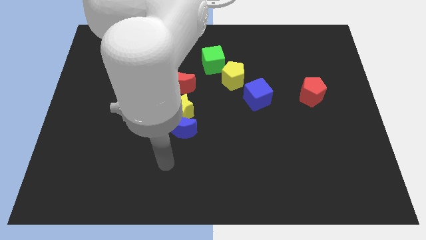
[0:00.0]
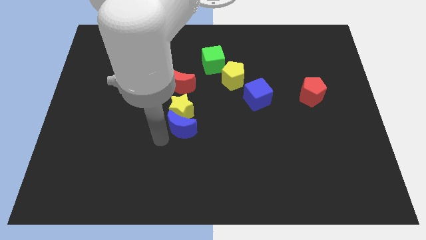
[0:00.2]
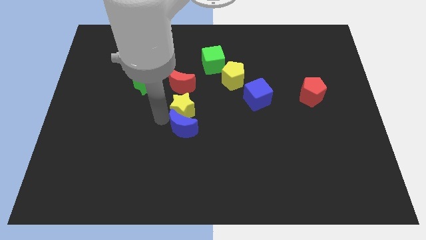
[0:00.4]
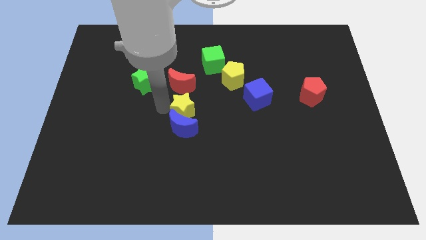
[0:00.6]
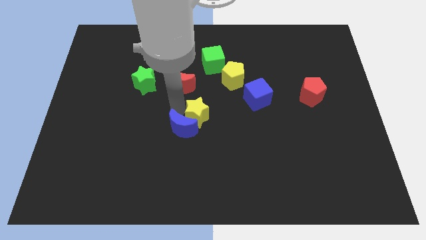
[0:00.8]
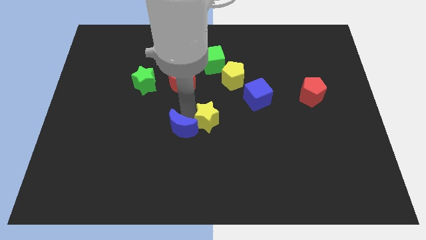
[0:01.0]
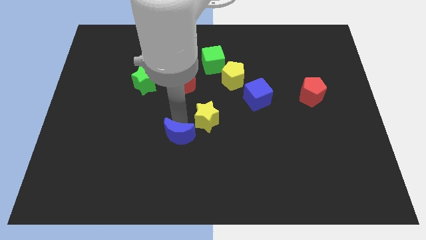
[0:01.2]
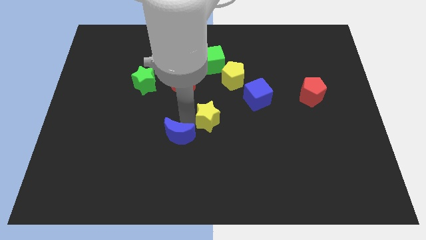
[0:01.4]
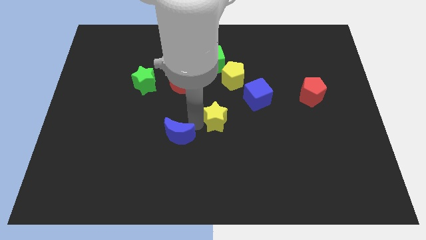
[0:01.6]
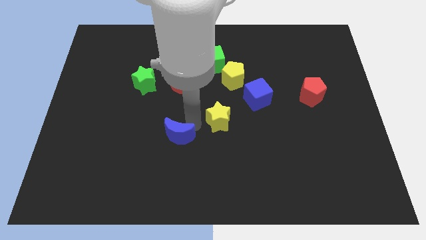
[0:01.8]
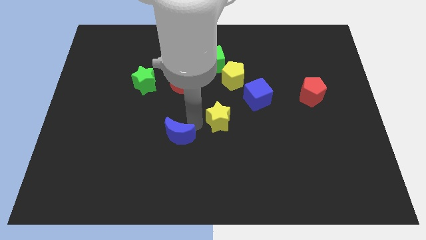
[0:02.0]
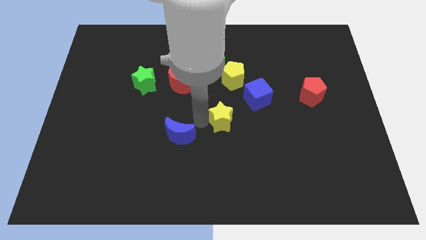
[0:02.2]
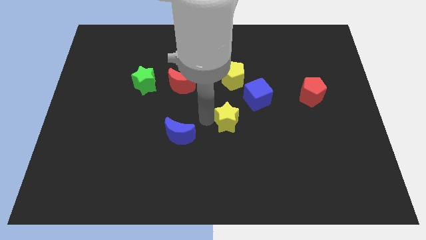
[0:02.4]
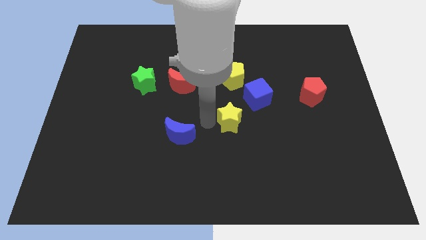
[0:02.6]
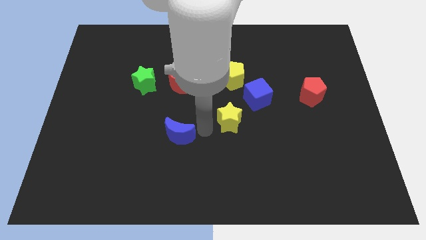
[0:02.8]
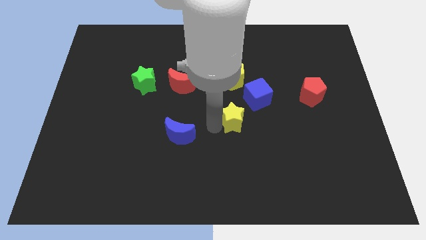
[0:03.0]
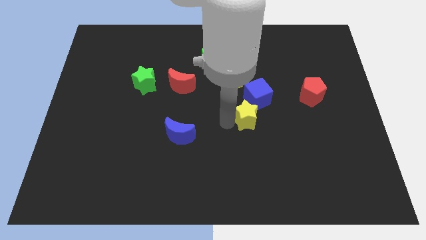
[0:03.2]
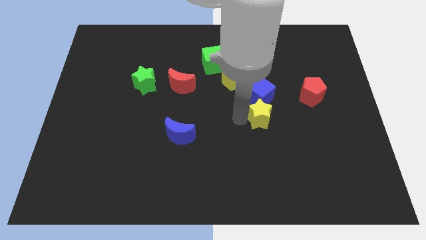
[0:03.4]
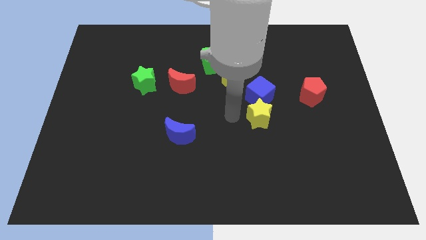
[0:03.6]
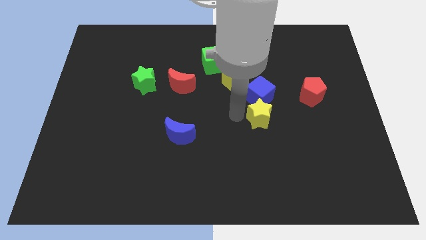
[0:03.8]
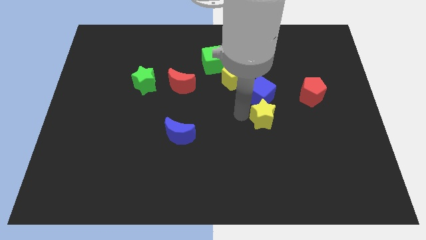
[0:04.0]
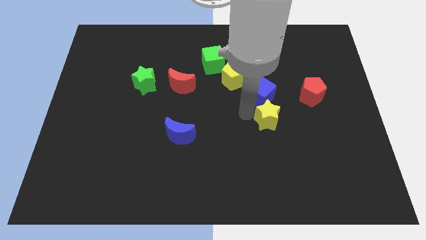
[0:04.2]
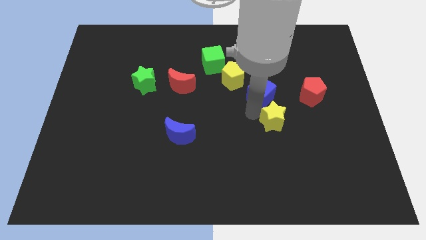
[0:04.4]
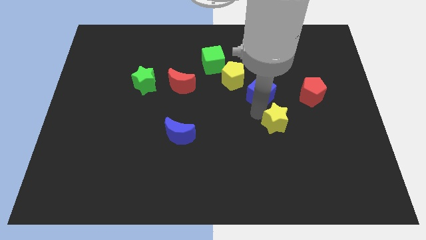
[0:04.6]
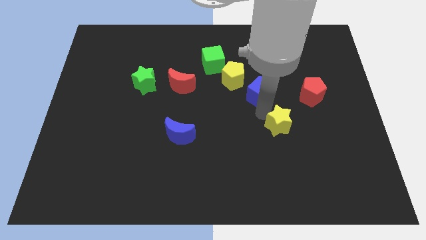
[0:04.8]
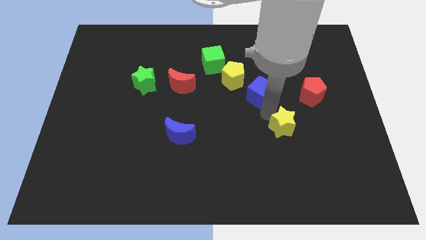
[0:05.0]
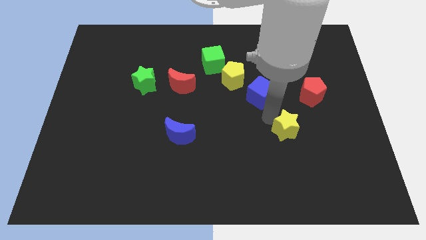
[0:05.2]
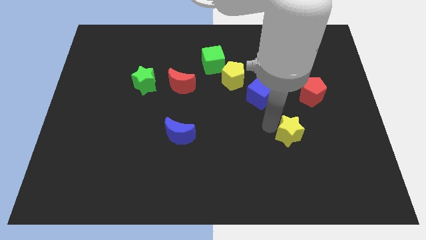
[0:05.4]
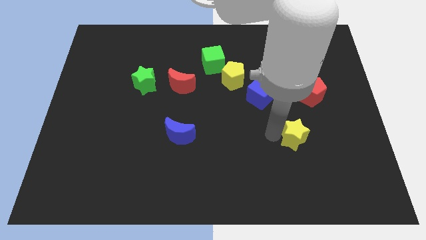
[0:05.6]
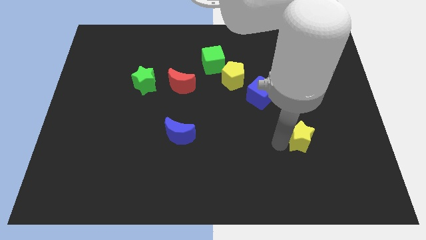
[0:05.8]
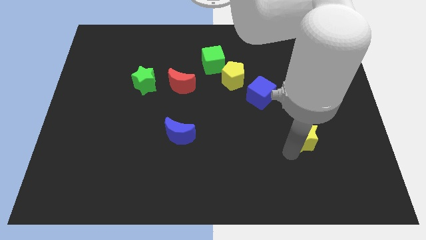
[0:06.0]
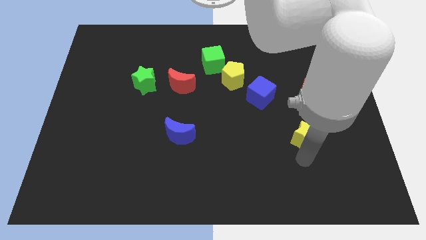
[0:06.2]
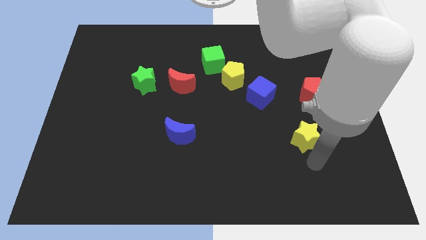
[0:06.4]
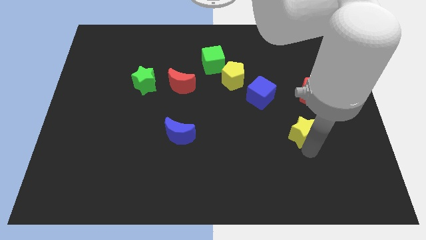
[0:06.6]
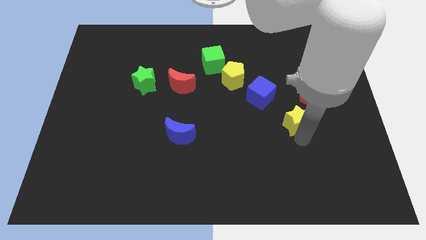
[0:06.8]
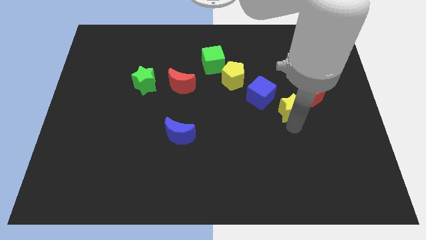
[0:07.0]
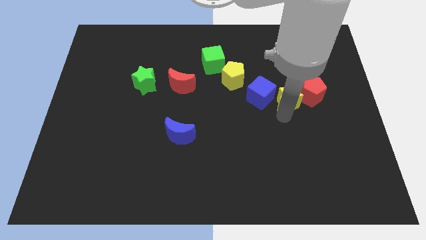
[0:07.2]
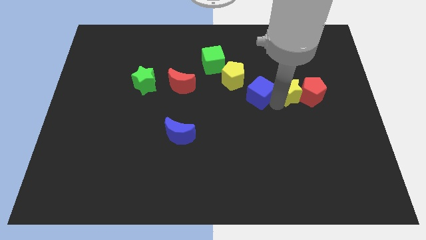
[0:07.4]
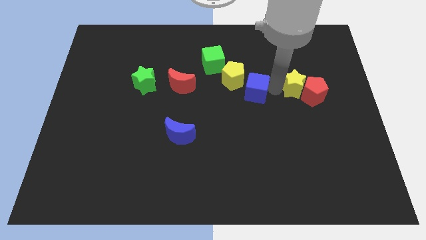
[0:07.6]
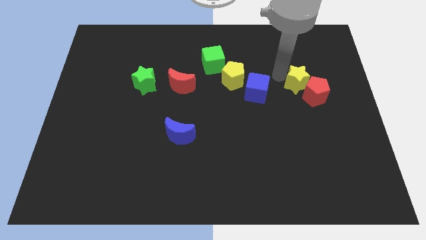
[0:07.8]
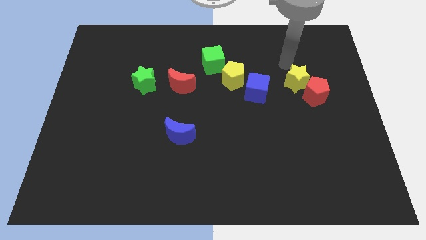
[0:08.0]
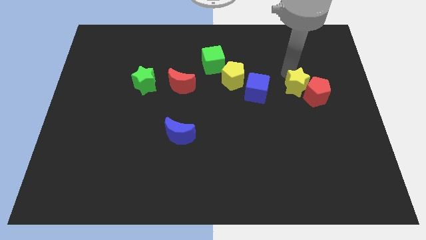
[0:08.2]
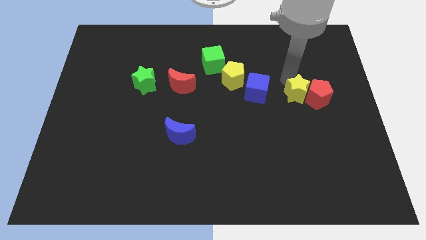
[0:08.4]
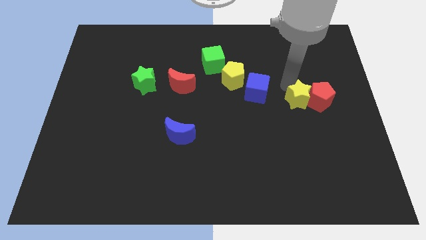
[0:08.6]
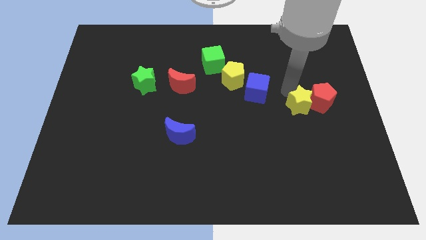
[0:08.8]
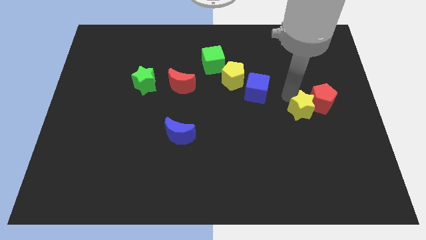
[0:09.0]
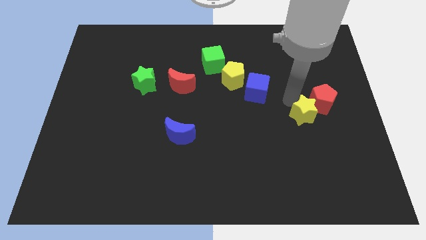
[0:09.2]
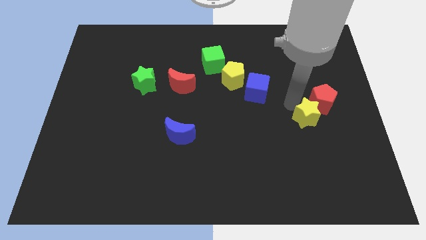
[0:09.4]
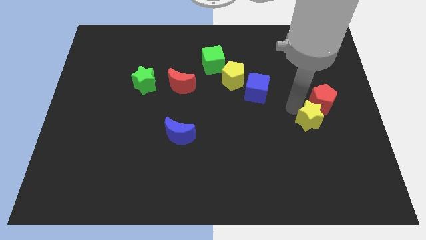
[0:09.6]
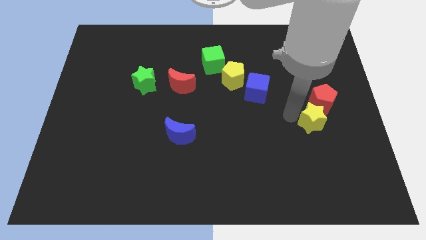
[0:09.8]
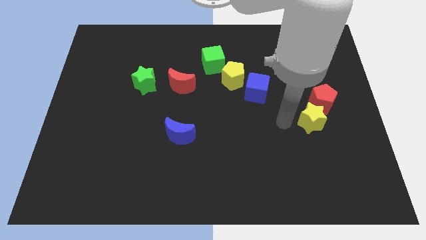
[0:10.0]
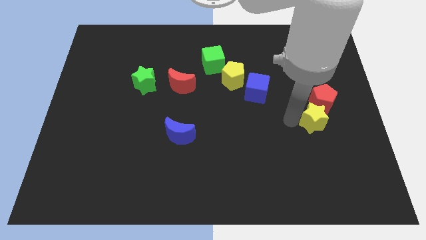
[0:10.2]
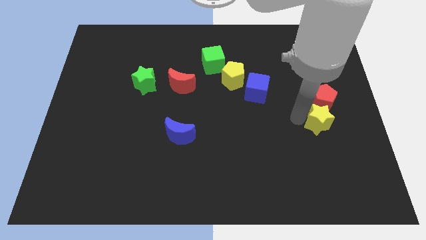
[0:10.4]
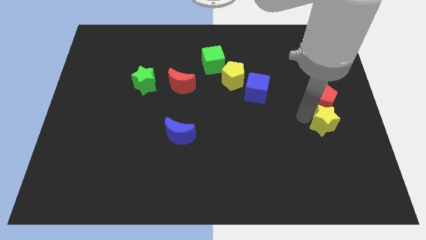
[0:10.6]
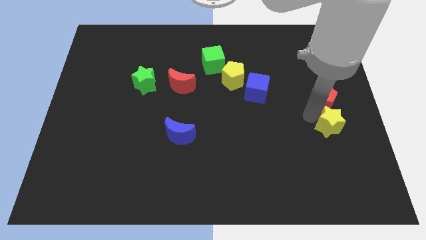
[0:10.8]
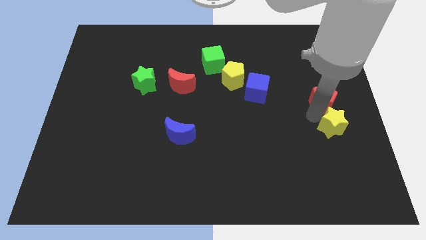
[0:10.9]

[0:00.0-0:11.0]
move the yellow star to the center right
